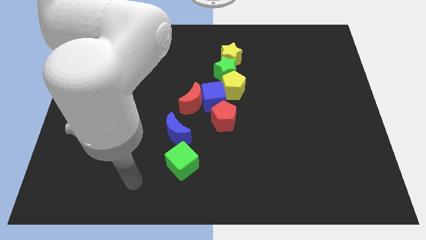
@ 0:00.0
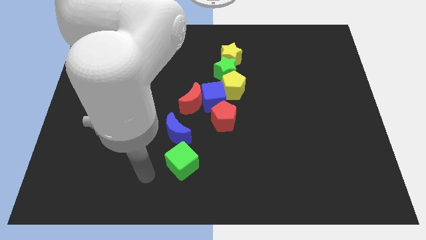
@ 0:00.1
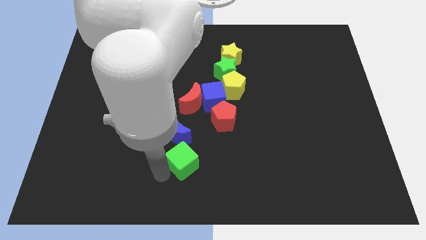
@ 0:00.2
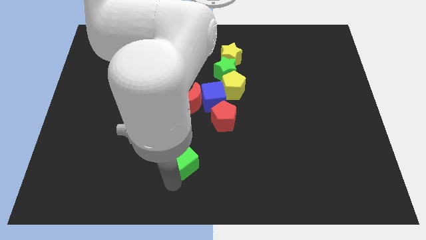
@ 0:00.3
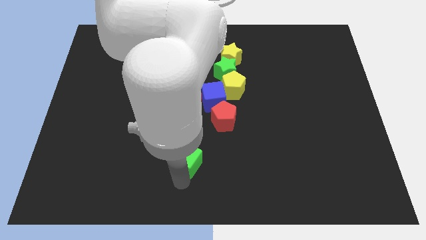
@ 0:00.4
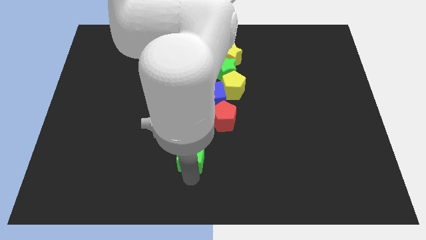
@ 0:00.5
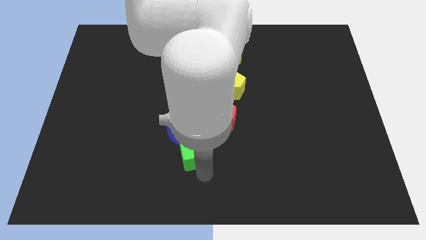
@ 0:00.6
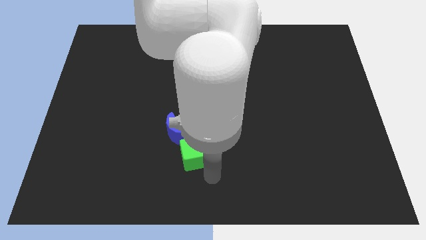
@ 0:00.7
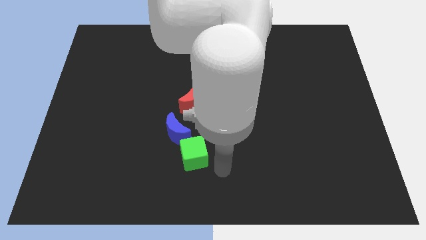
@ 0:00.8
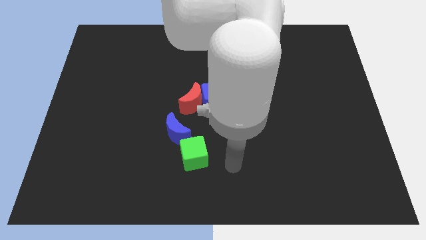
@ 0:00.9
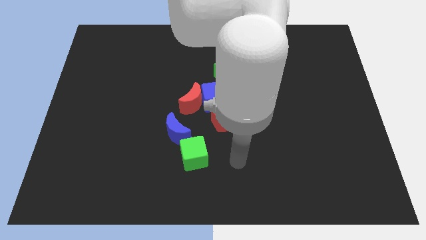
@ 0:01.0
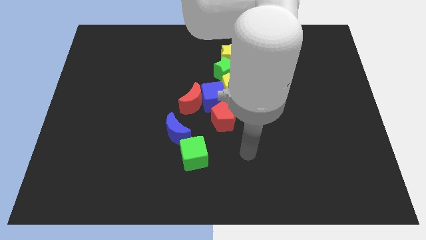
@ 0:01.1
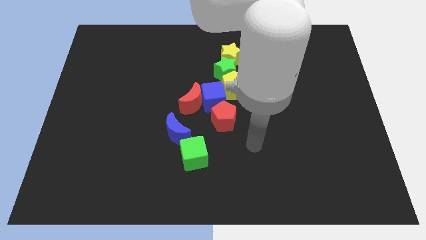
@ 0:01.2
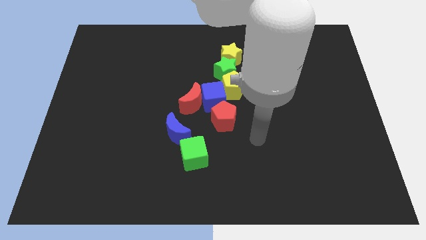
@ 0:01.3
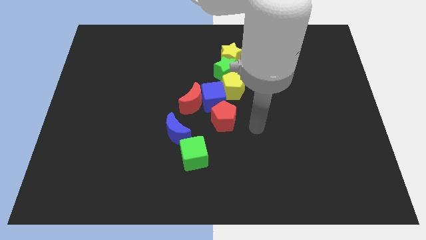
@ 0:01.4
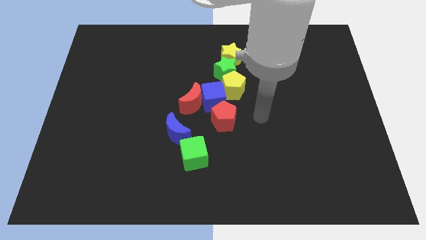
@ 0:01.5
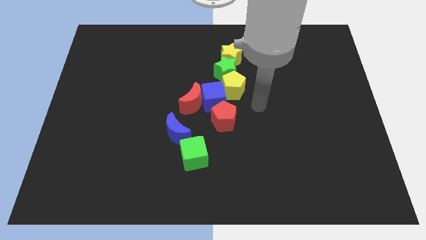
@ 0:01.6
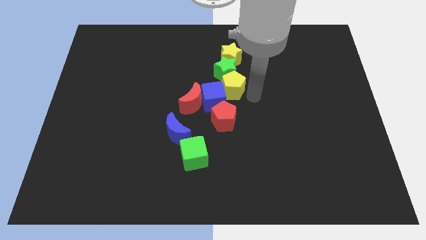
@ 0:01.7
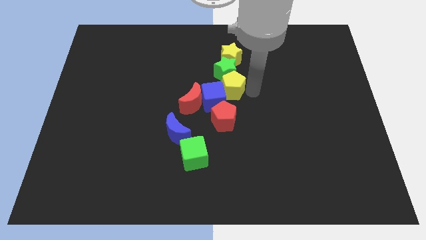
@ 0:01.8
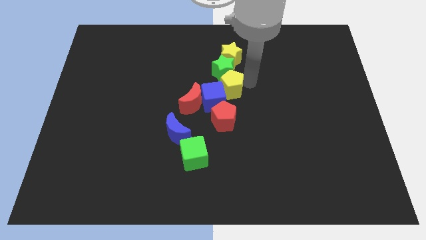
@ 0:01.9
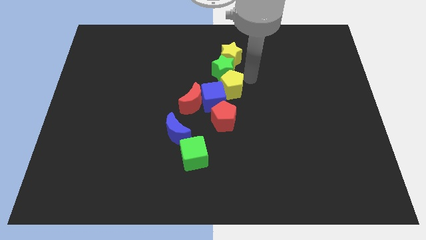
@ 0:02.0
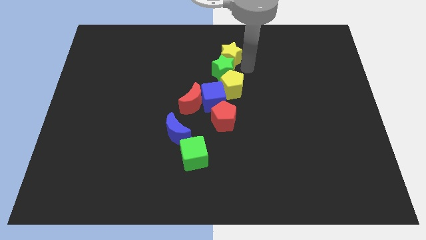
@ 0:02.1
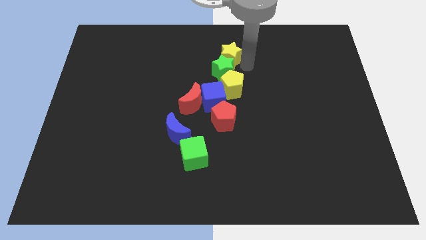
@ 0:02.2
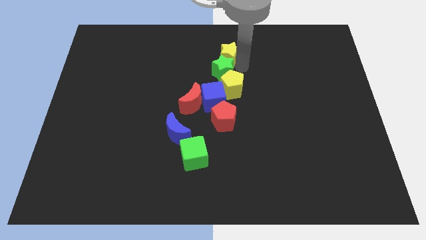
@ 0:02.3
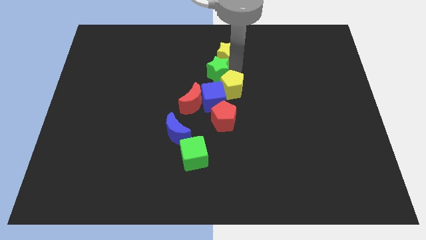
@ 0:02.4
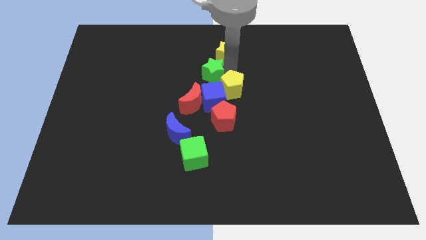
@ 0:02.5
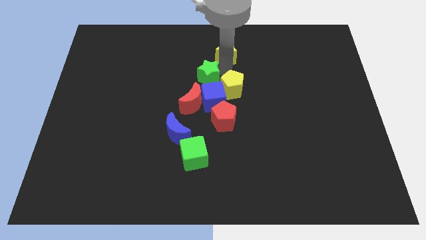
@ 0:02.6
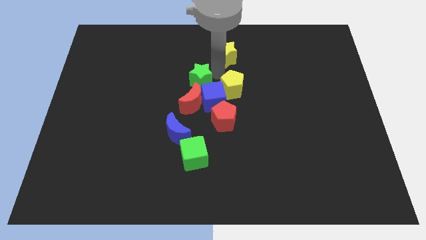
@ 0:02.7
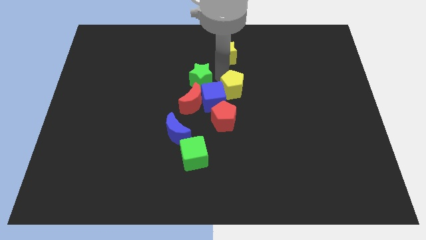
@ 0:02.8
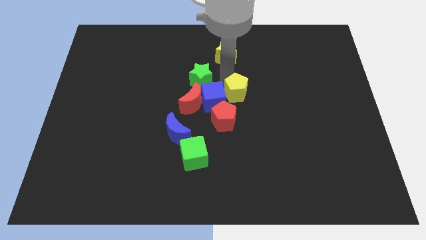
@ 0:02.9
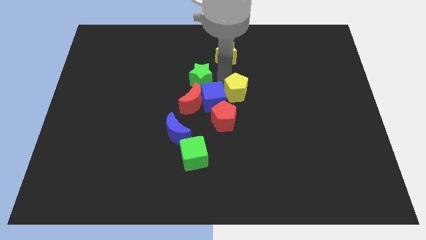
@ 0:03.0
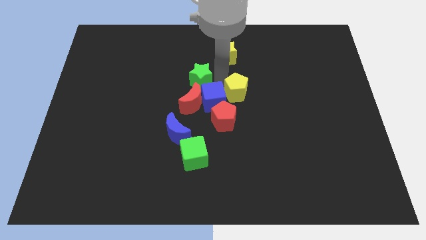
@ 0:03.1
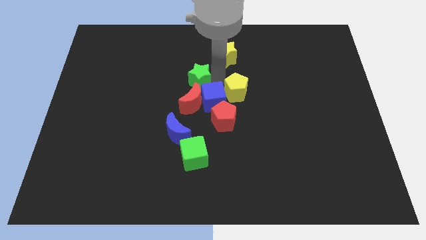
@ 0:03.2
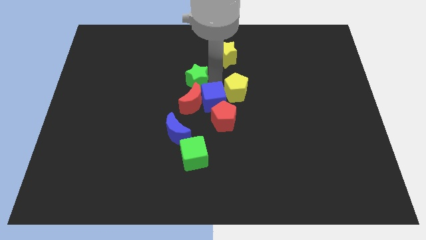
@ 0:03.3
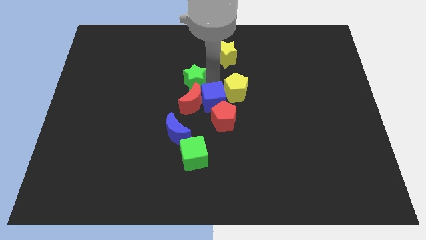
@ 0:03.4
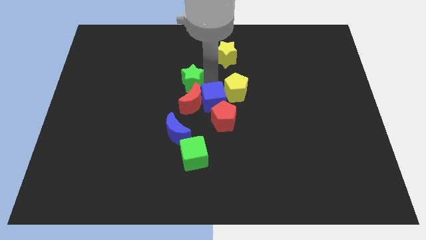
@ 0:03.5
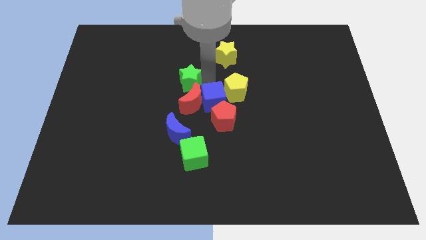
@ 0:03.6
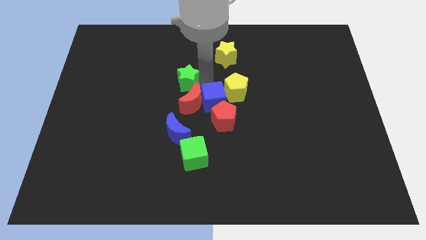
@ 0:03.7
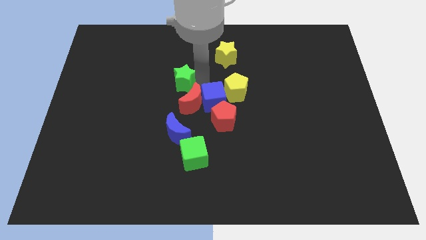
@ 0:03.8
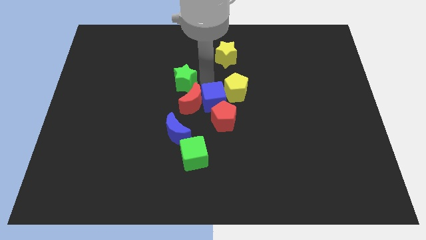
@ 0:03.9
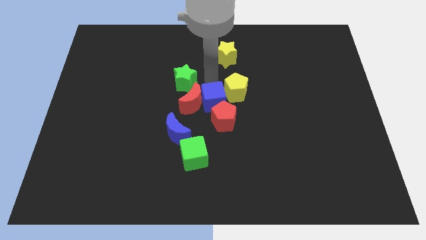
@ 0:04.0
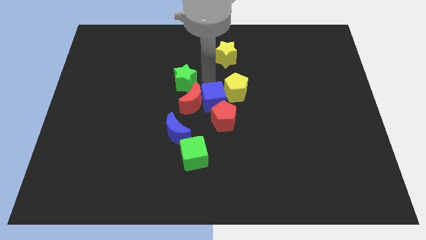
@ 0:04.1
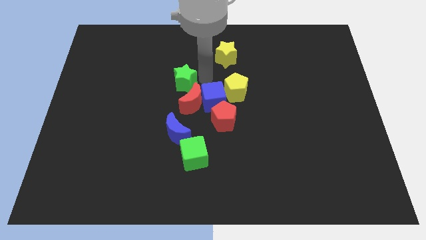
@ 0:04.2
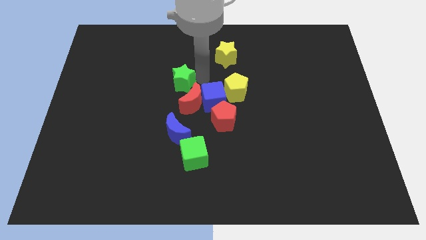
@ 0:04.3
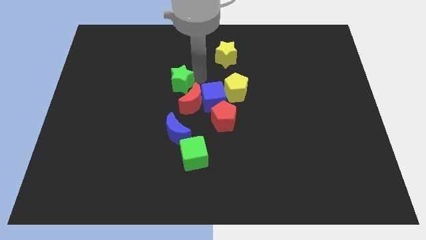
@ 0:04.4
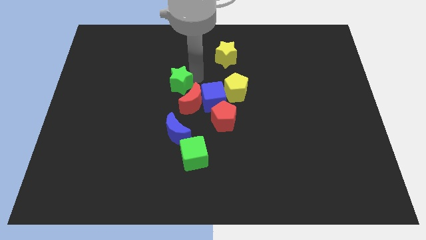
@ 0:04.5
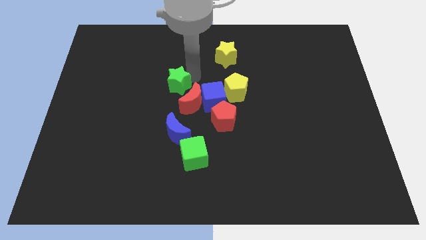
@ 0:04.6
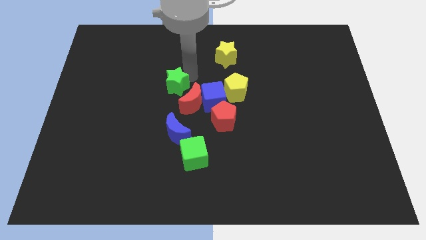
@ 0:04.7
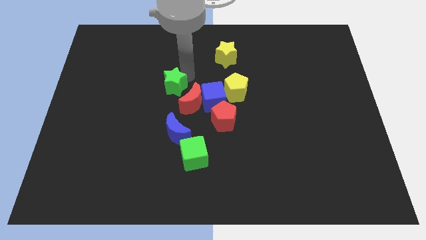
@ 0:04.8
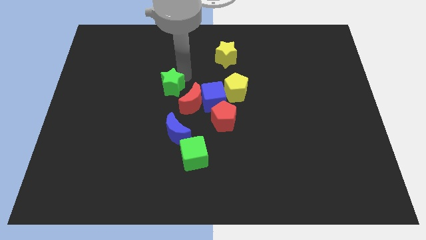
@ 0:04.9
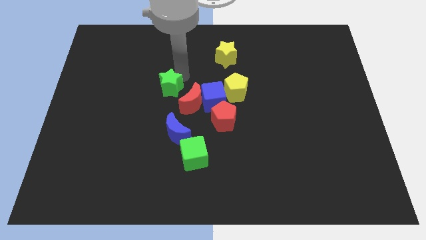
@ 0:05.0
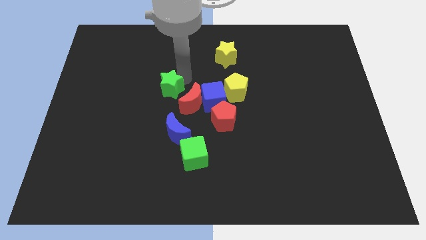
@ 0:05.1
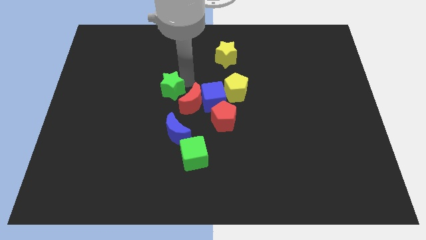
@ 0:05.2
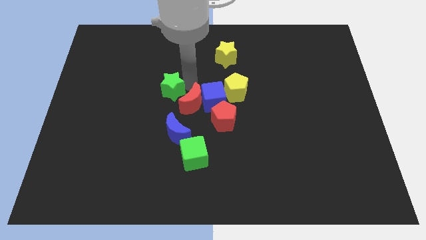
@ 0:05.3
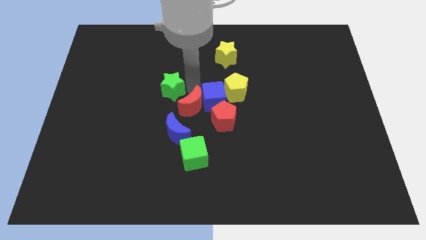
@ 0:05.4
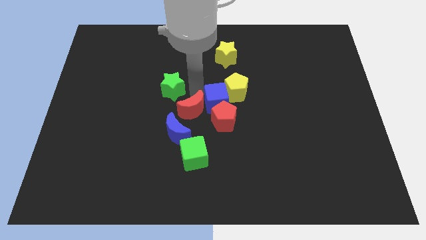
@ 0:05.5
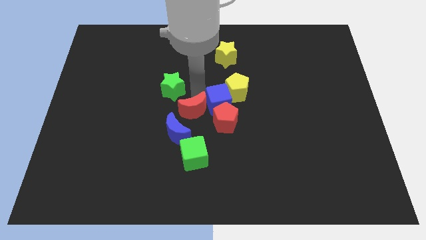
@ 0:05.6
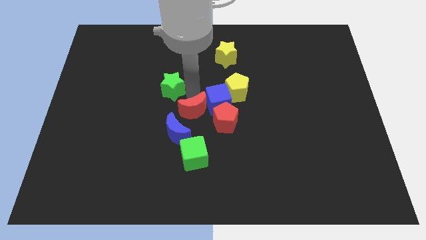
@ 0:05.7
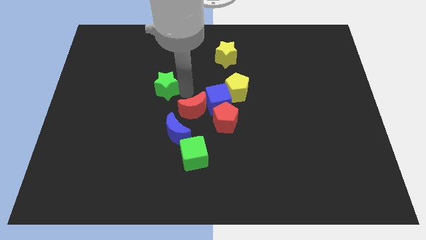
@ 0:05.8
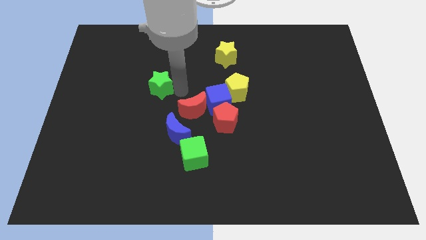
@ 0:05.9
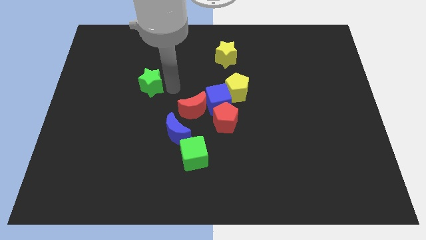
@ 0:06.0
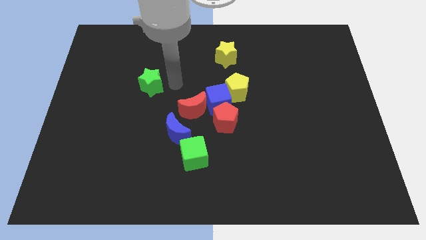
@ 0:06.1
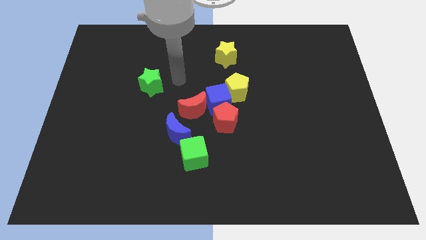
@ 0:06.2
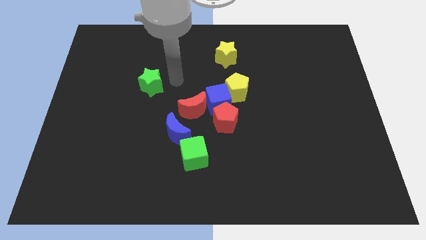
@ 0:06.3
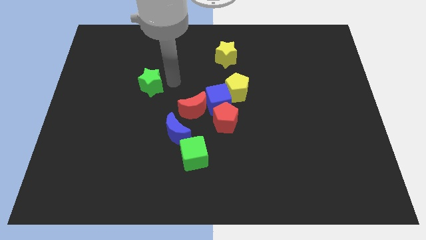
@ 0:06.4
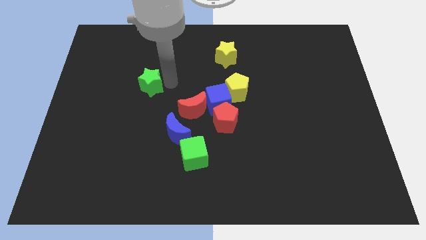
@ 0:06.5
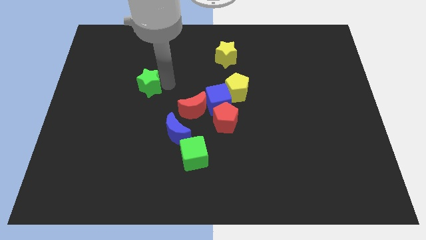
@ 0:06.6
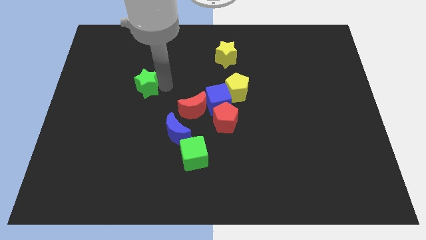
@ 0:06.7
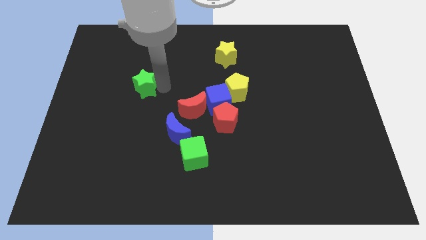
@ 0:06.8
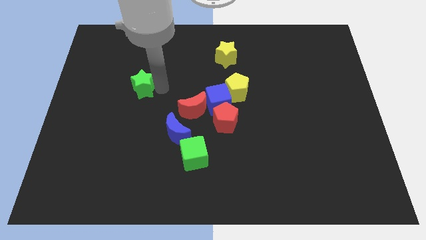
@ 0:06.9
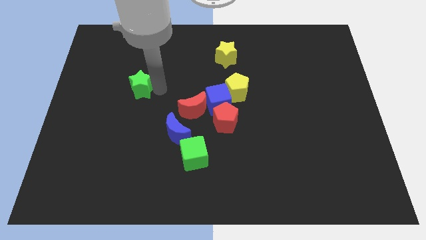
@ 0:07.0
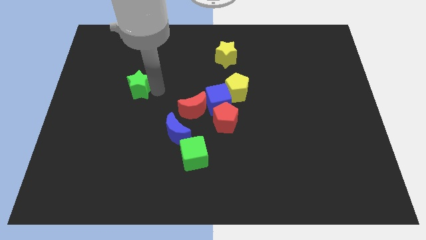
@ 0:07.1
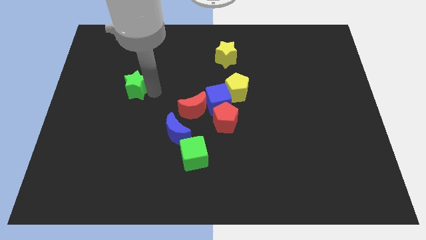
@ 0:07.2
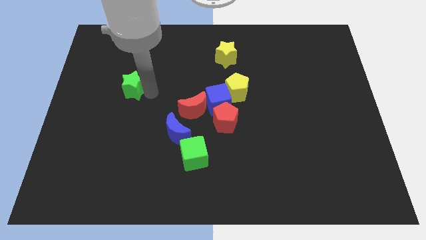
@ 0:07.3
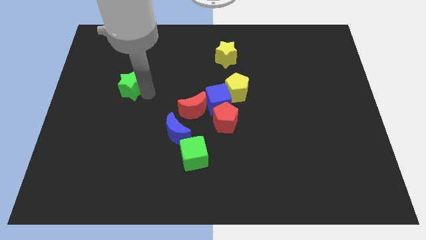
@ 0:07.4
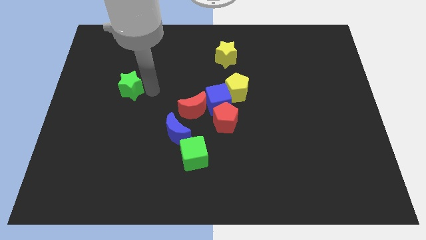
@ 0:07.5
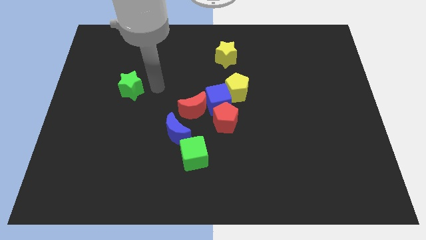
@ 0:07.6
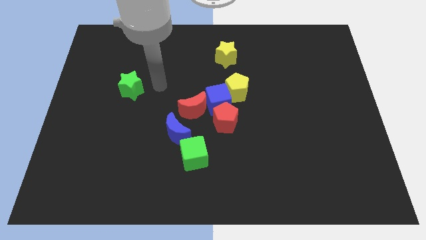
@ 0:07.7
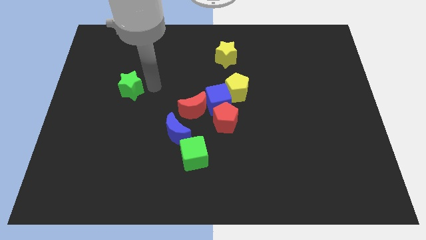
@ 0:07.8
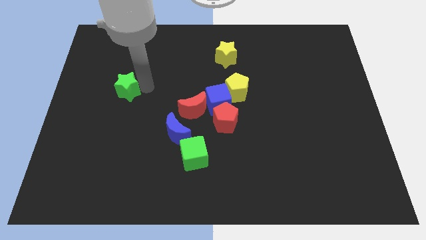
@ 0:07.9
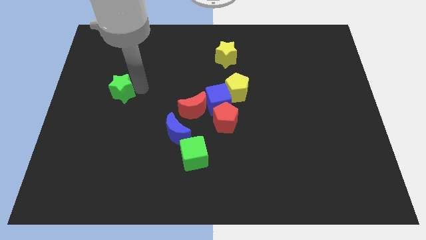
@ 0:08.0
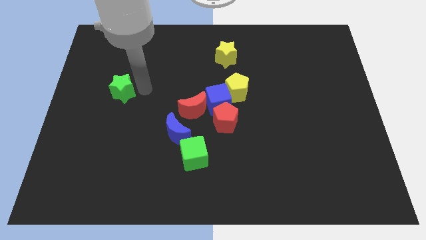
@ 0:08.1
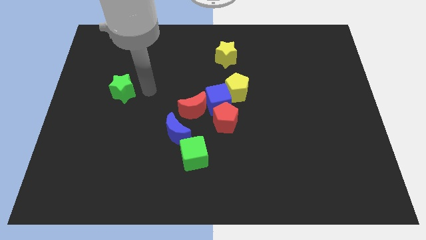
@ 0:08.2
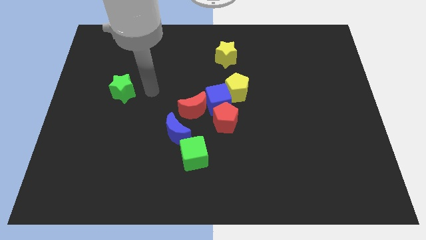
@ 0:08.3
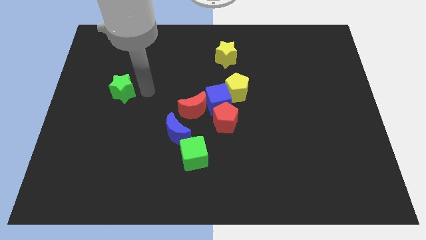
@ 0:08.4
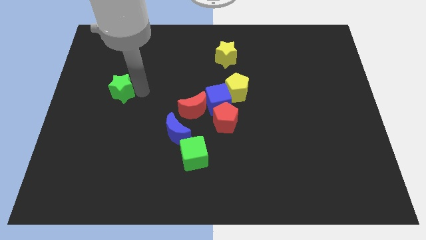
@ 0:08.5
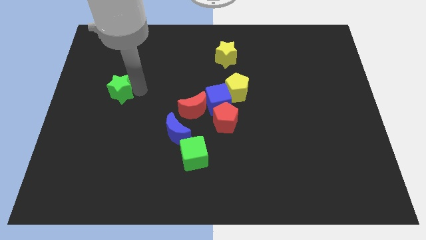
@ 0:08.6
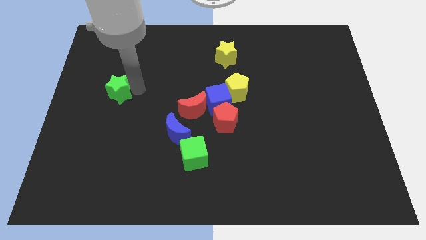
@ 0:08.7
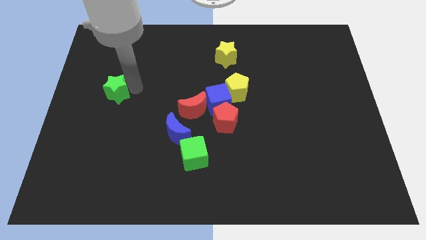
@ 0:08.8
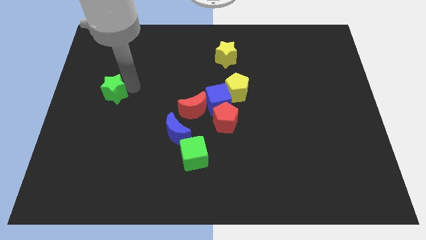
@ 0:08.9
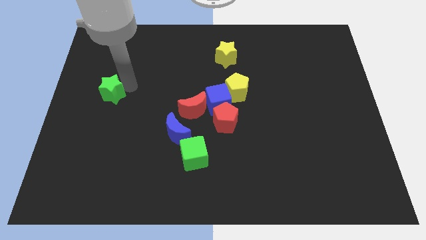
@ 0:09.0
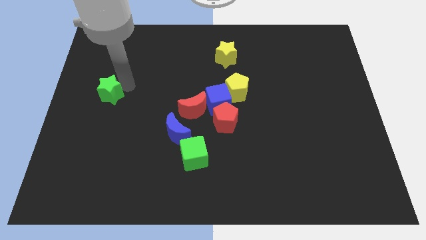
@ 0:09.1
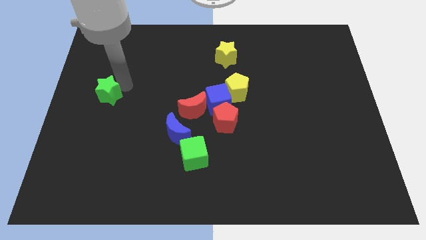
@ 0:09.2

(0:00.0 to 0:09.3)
push the green star to the left side of the board
